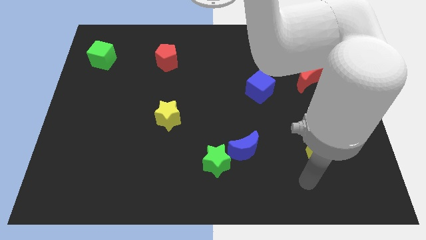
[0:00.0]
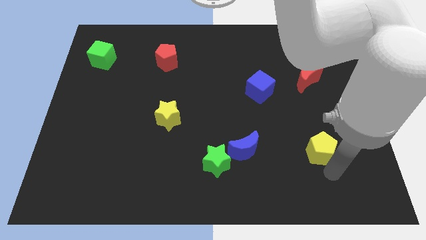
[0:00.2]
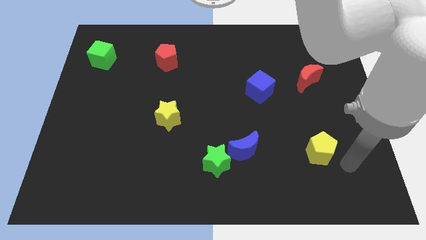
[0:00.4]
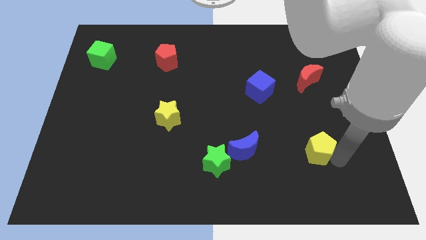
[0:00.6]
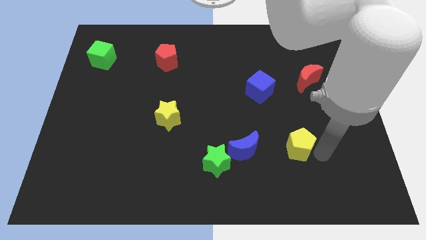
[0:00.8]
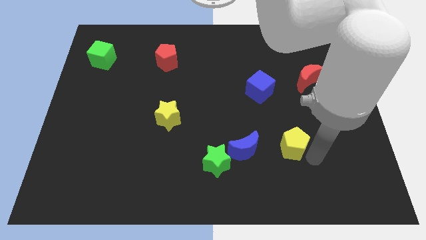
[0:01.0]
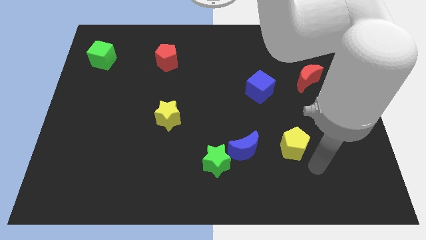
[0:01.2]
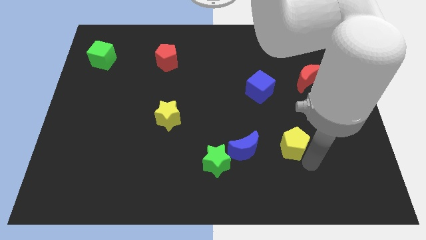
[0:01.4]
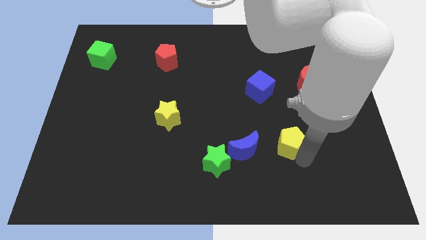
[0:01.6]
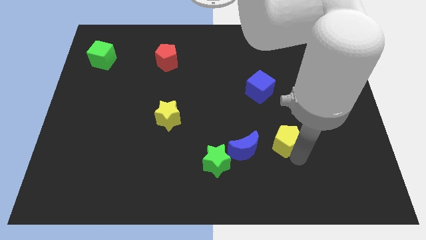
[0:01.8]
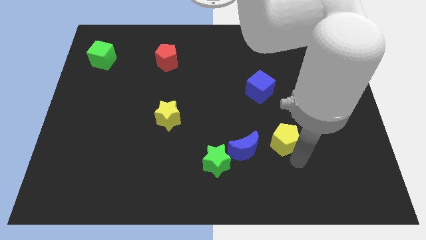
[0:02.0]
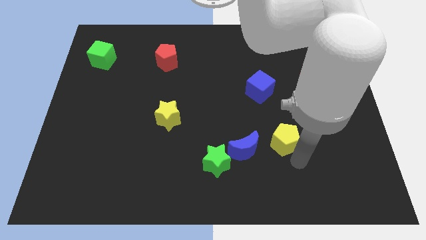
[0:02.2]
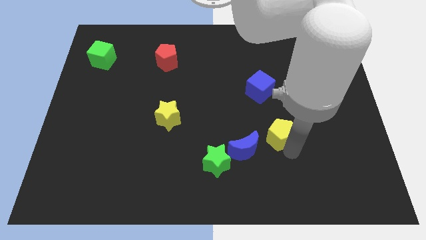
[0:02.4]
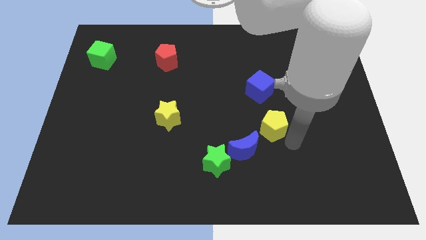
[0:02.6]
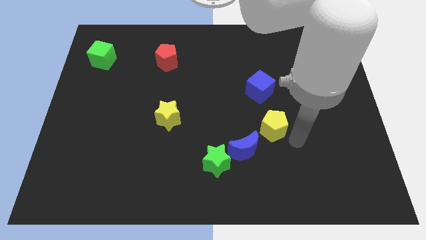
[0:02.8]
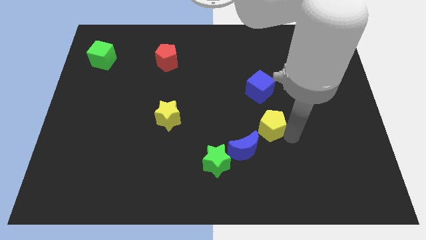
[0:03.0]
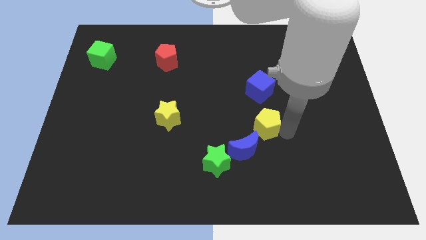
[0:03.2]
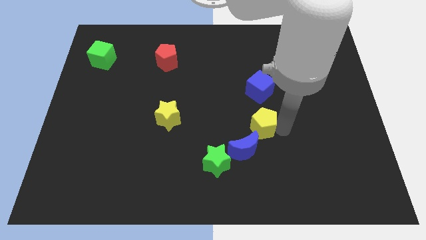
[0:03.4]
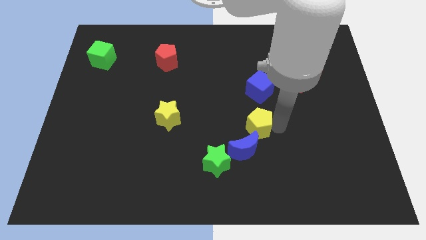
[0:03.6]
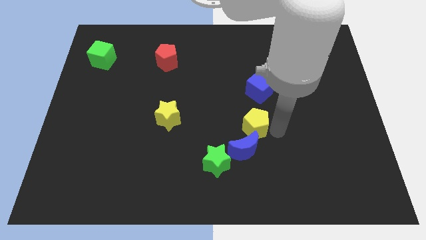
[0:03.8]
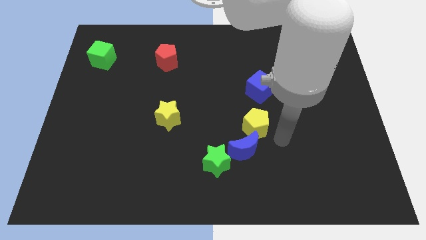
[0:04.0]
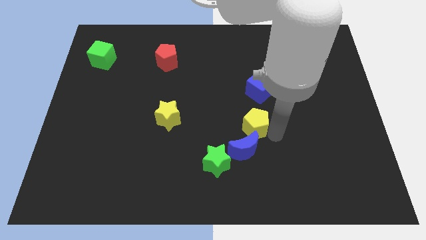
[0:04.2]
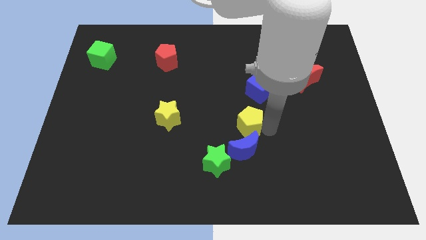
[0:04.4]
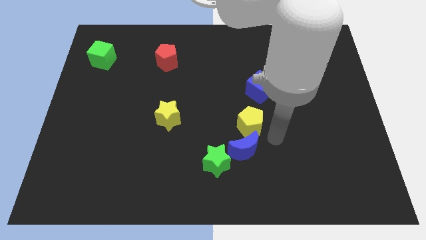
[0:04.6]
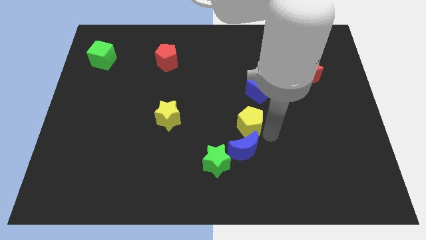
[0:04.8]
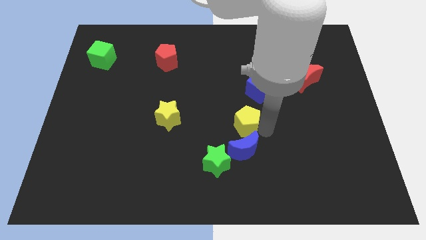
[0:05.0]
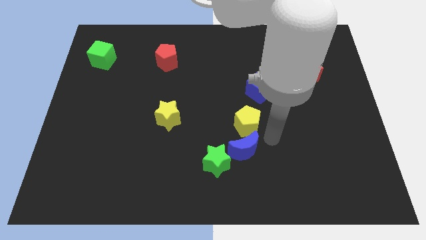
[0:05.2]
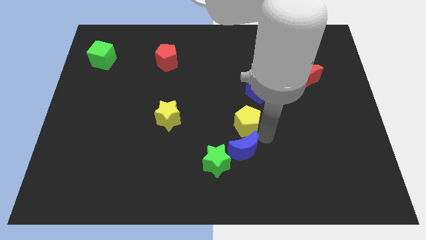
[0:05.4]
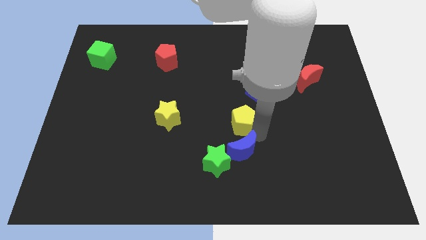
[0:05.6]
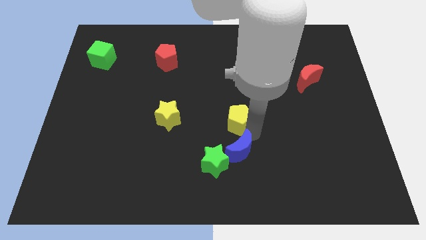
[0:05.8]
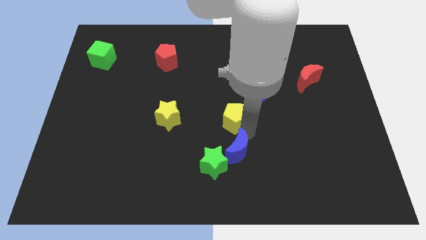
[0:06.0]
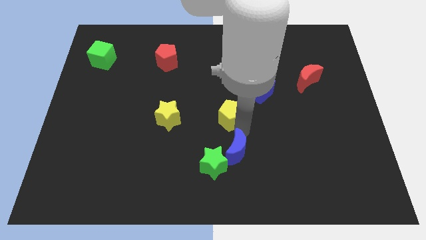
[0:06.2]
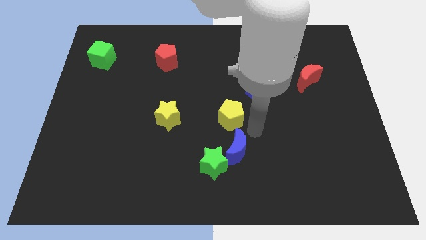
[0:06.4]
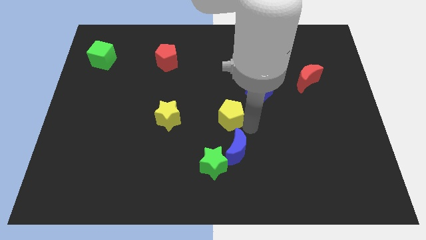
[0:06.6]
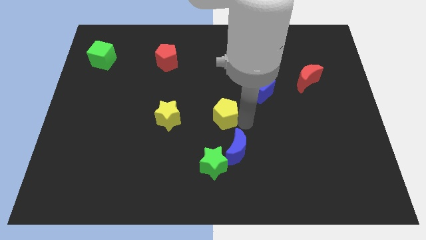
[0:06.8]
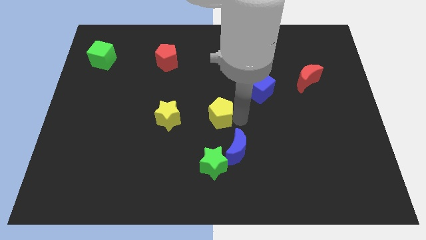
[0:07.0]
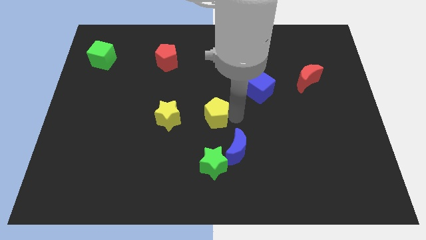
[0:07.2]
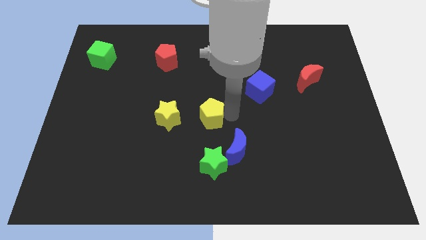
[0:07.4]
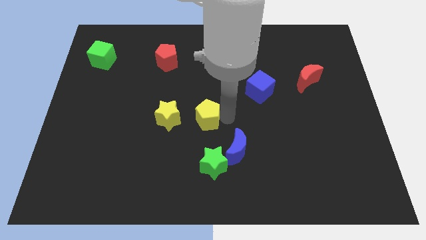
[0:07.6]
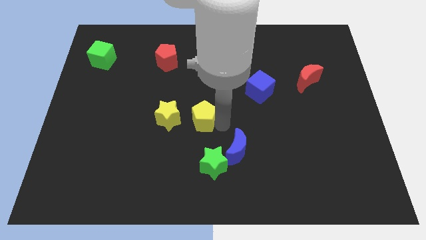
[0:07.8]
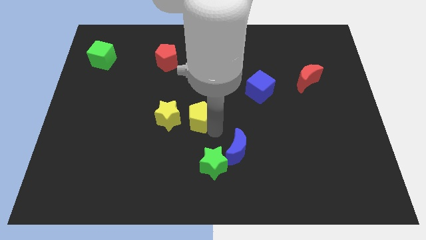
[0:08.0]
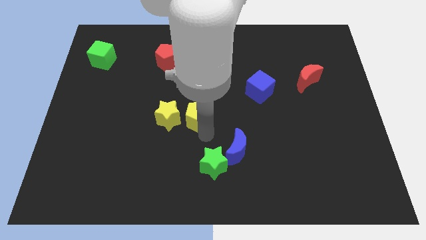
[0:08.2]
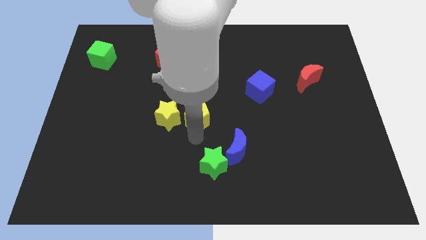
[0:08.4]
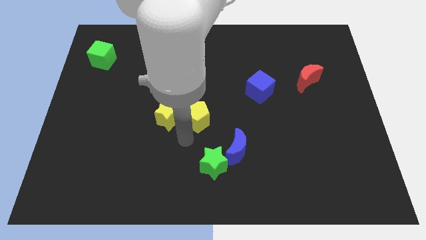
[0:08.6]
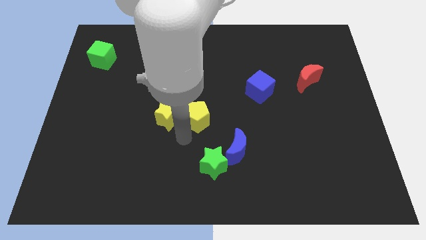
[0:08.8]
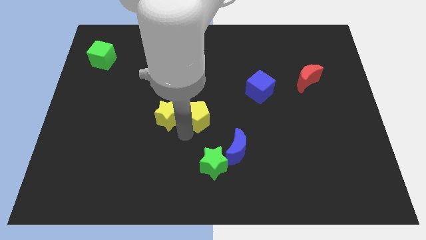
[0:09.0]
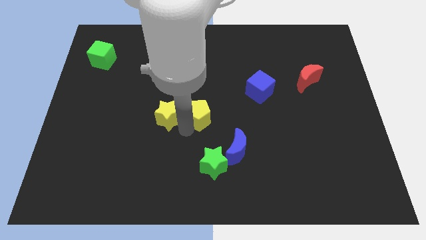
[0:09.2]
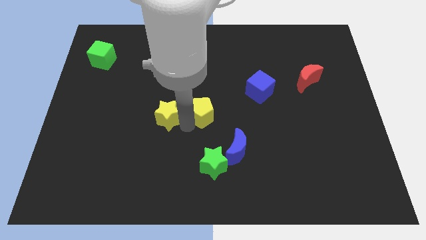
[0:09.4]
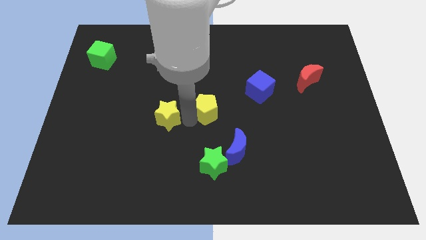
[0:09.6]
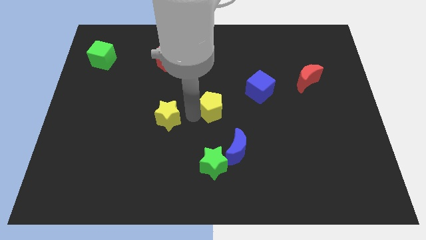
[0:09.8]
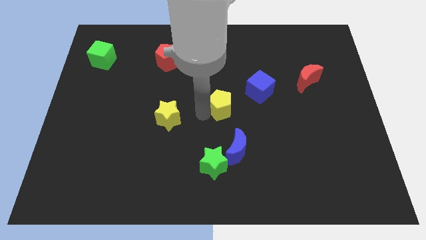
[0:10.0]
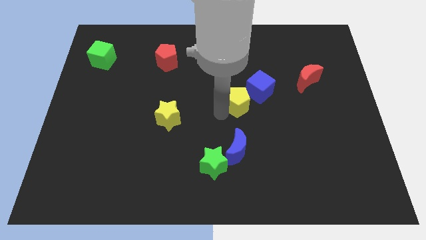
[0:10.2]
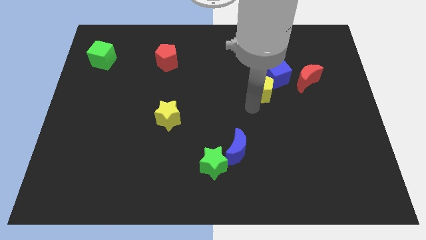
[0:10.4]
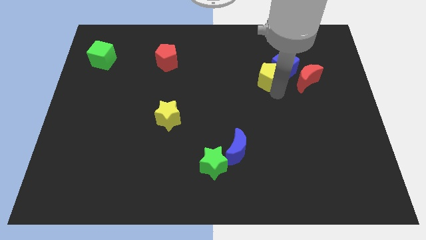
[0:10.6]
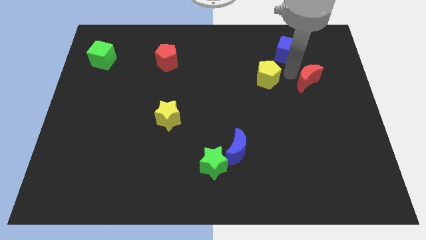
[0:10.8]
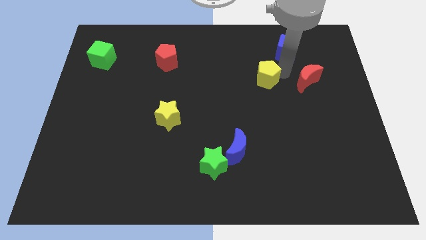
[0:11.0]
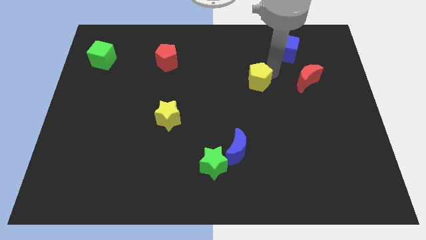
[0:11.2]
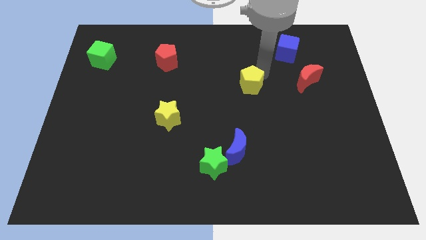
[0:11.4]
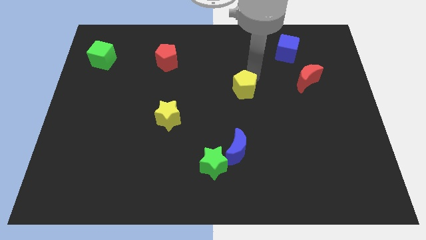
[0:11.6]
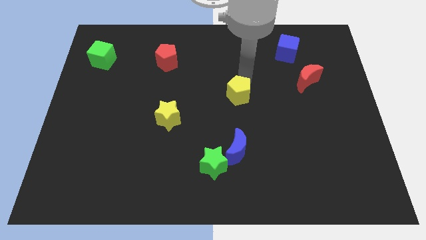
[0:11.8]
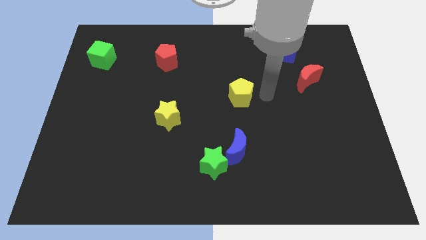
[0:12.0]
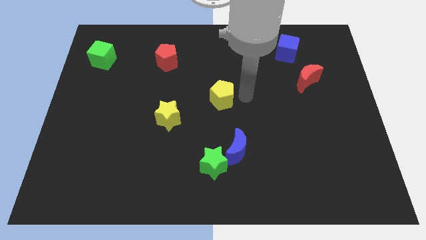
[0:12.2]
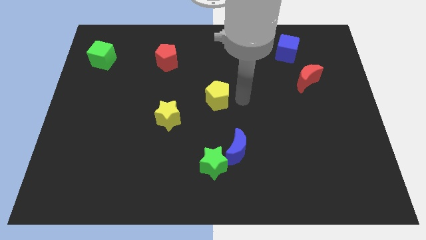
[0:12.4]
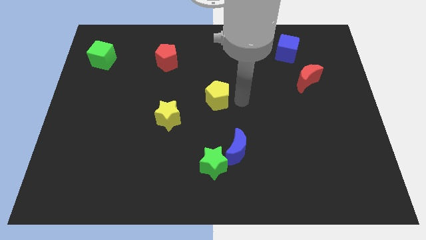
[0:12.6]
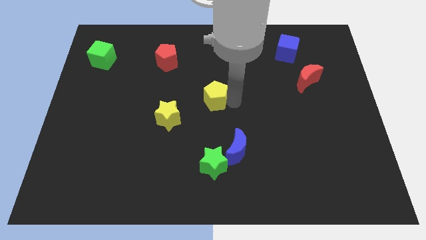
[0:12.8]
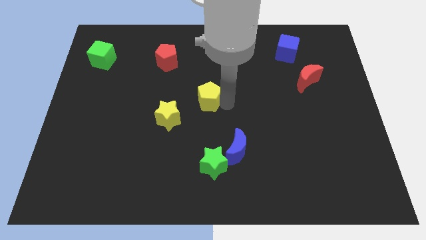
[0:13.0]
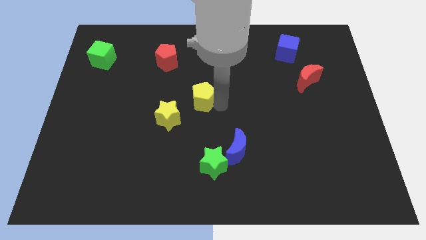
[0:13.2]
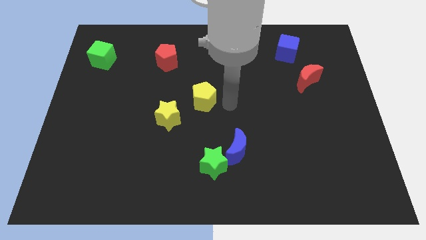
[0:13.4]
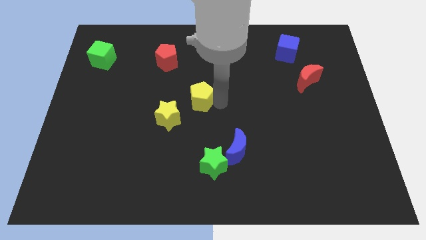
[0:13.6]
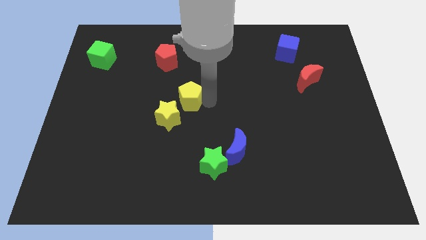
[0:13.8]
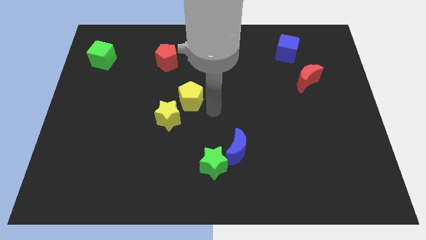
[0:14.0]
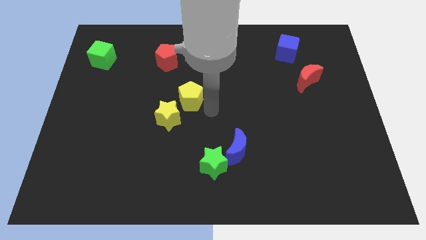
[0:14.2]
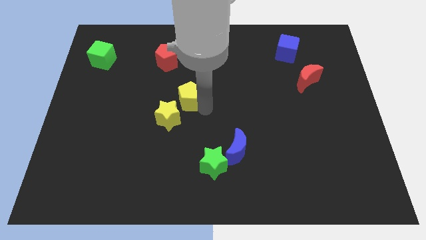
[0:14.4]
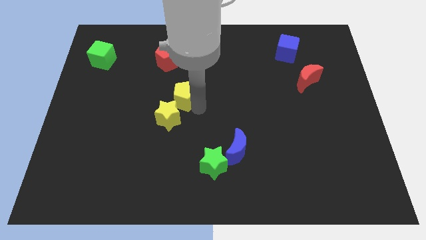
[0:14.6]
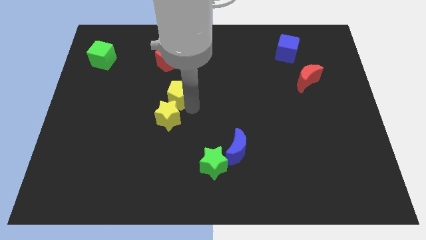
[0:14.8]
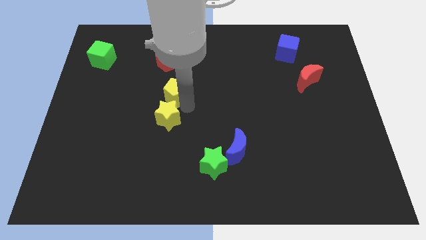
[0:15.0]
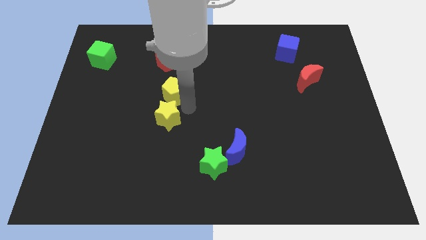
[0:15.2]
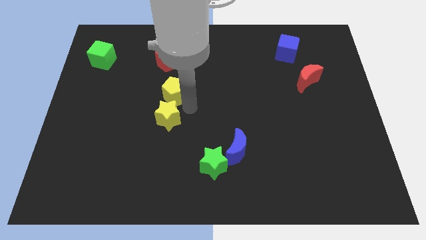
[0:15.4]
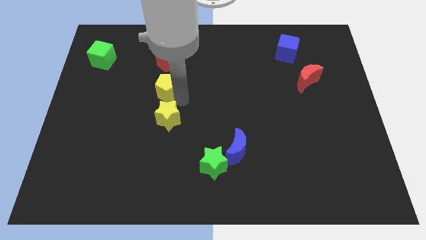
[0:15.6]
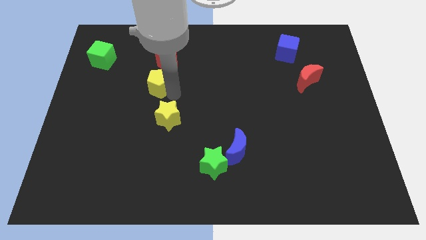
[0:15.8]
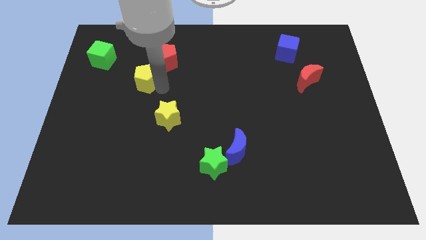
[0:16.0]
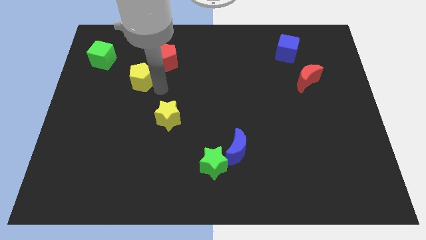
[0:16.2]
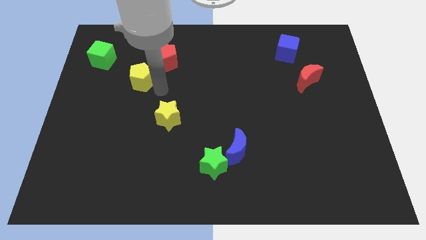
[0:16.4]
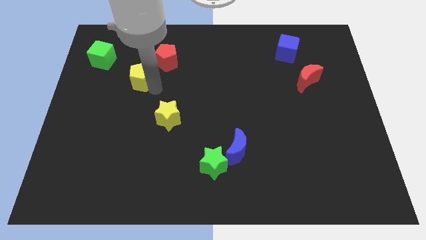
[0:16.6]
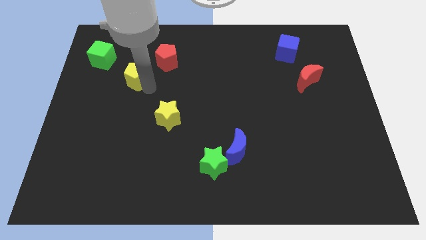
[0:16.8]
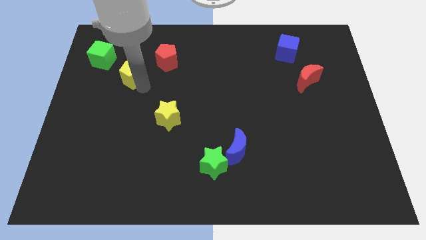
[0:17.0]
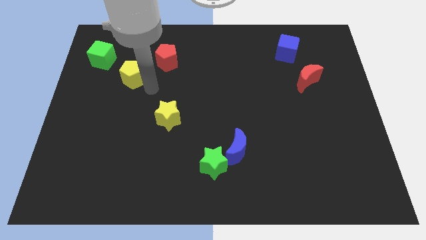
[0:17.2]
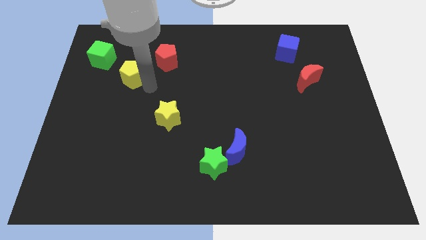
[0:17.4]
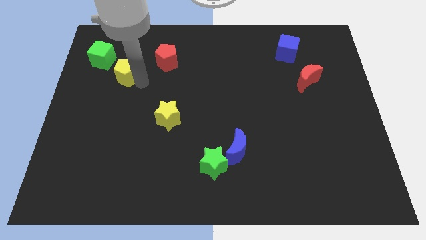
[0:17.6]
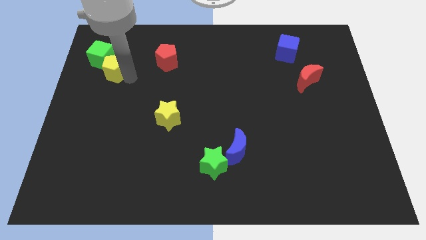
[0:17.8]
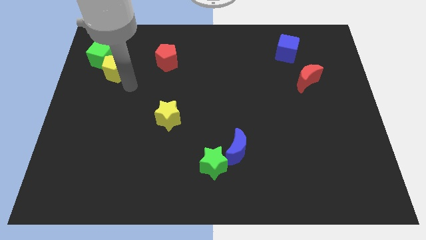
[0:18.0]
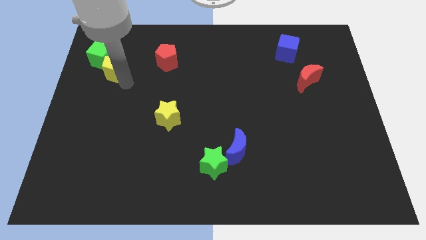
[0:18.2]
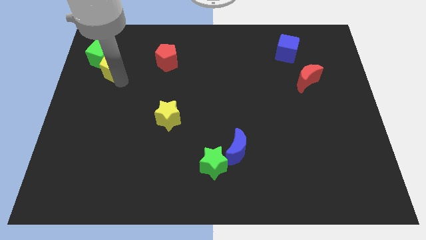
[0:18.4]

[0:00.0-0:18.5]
put the yellow pentagon towards the green cube
